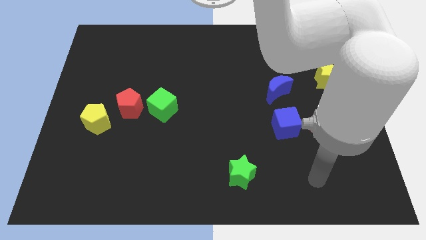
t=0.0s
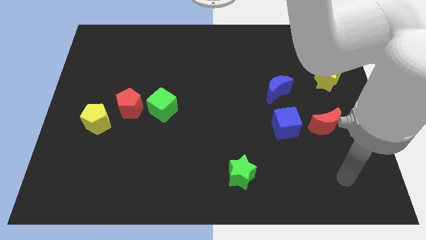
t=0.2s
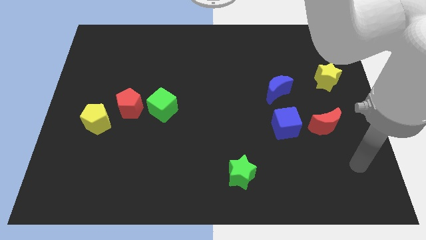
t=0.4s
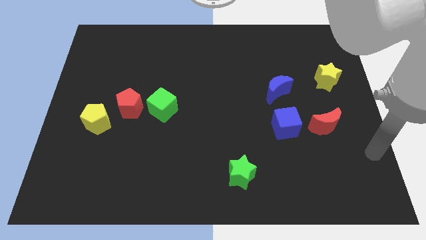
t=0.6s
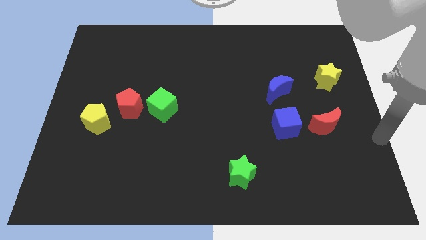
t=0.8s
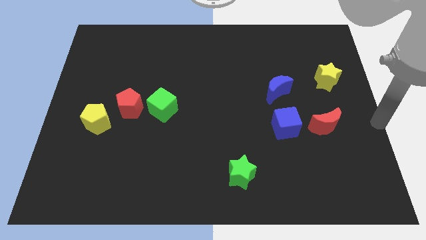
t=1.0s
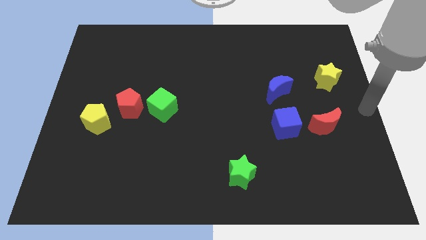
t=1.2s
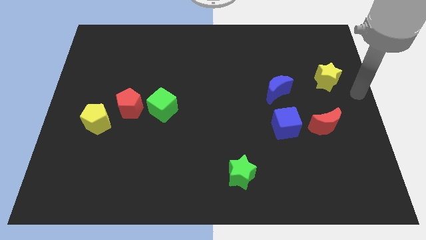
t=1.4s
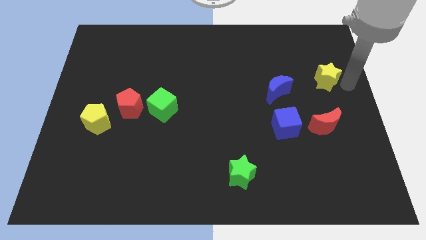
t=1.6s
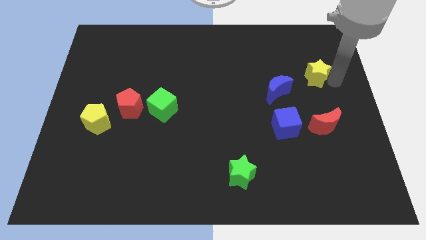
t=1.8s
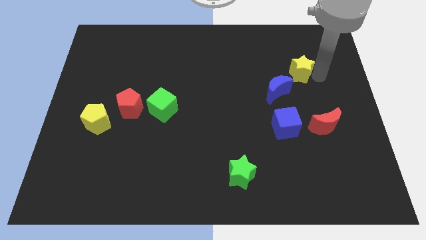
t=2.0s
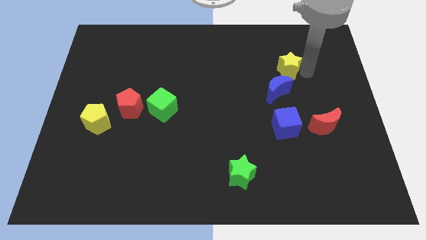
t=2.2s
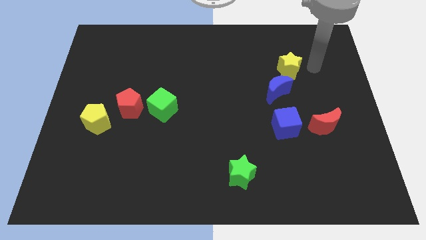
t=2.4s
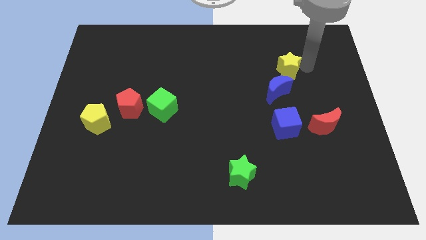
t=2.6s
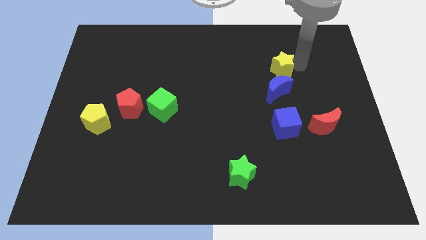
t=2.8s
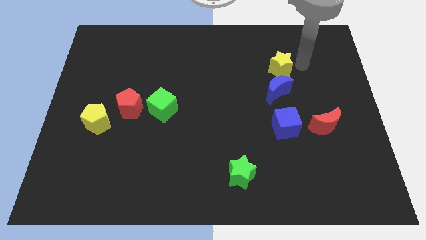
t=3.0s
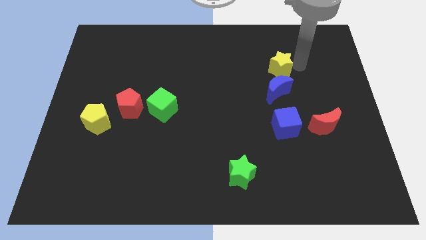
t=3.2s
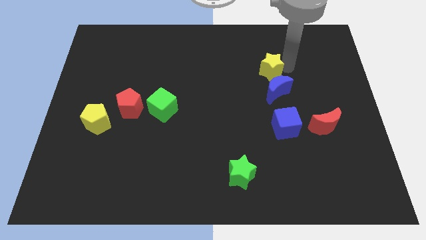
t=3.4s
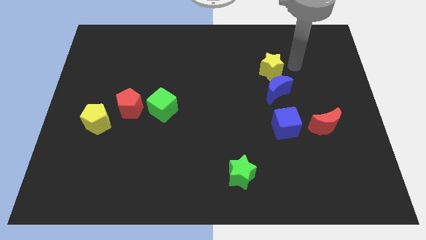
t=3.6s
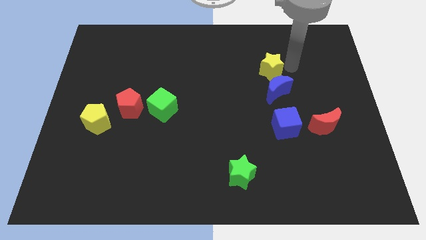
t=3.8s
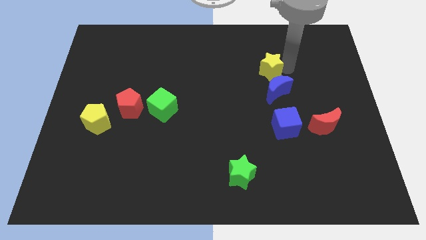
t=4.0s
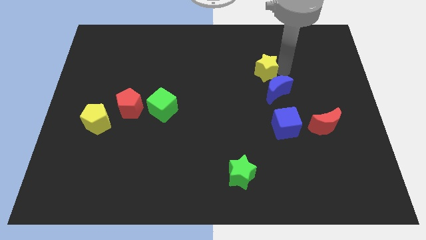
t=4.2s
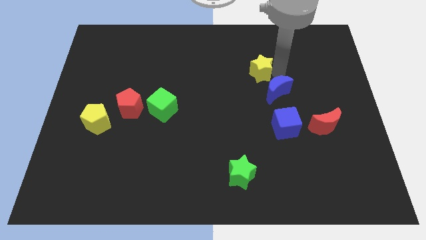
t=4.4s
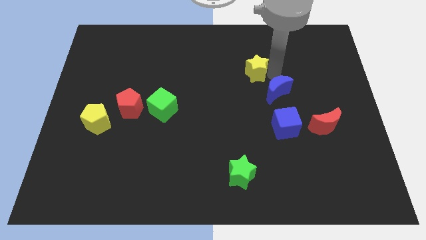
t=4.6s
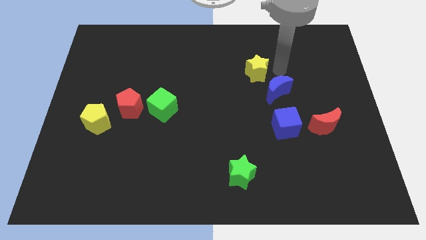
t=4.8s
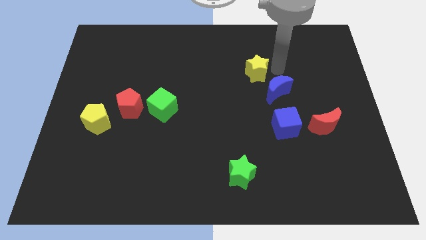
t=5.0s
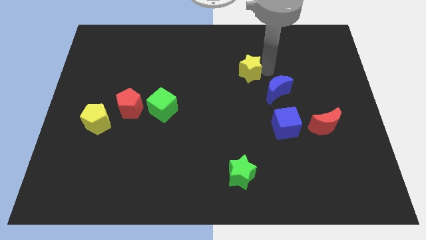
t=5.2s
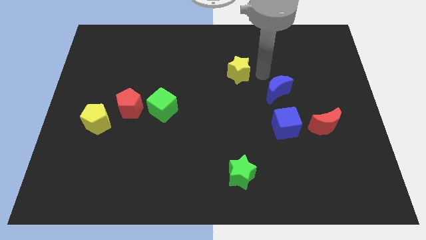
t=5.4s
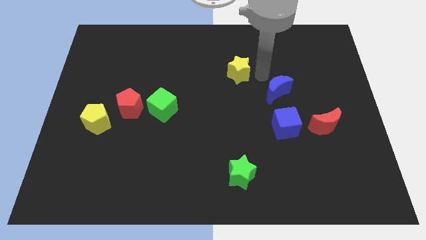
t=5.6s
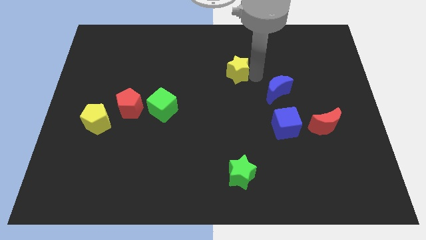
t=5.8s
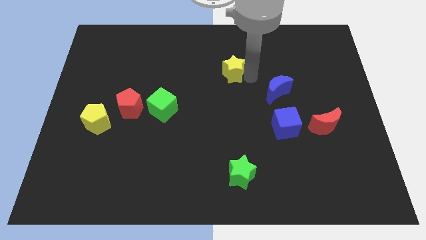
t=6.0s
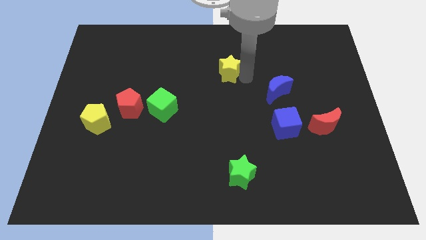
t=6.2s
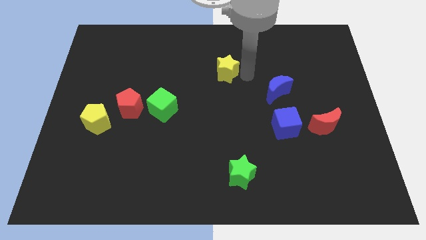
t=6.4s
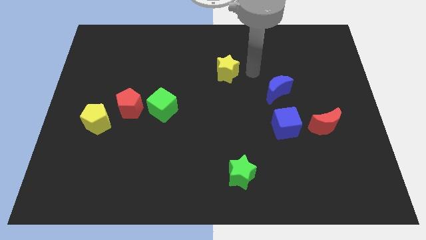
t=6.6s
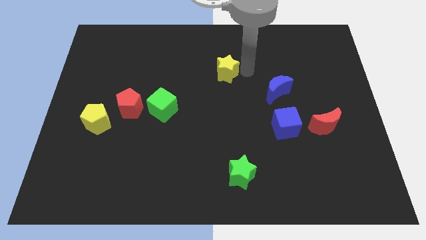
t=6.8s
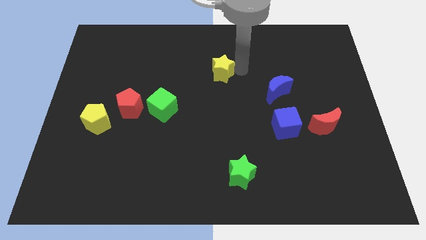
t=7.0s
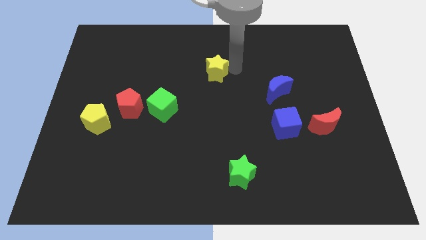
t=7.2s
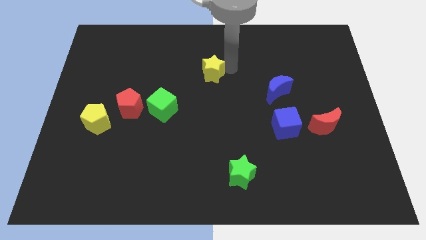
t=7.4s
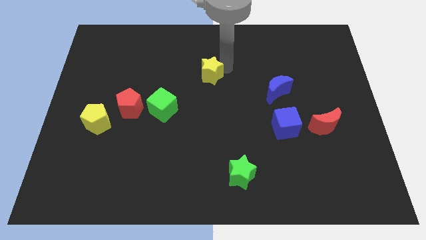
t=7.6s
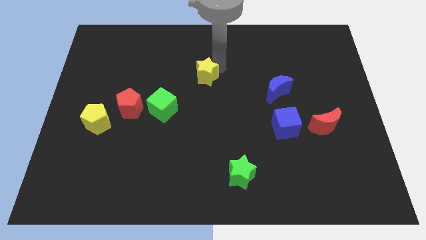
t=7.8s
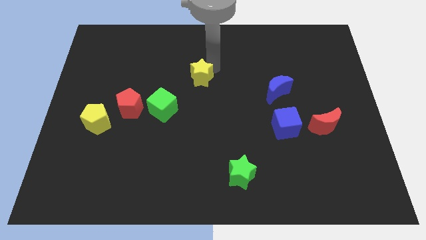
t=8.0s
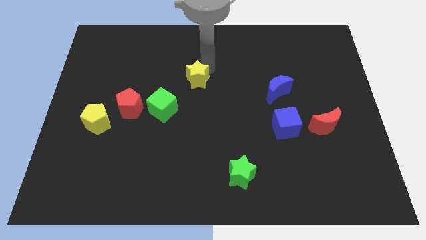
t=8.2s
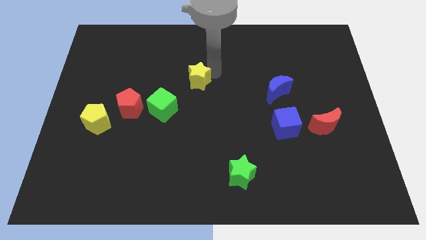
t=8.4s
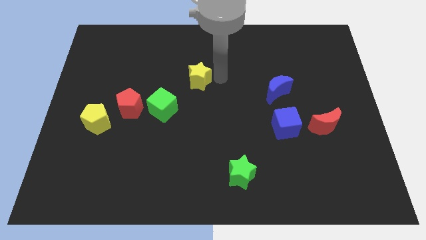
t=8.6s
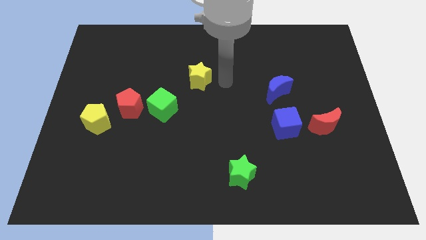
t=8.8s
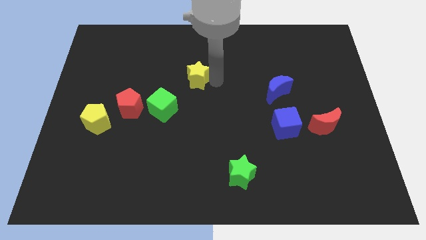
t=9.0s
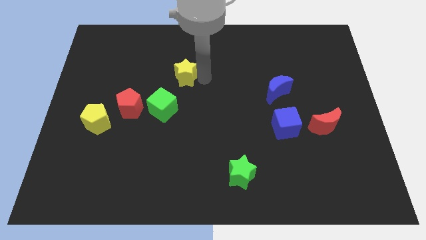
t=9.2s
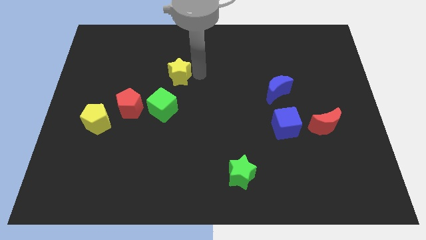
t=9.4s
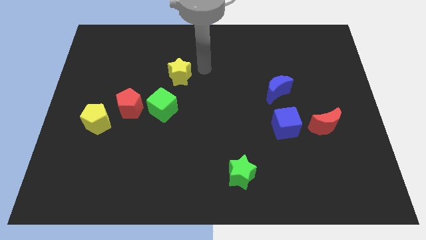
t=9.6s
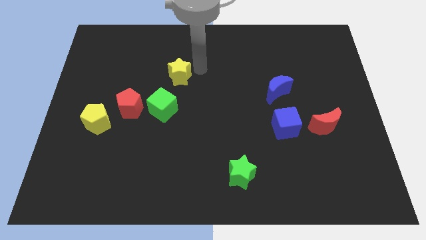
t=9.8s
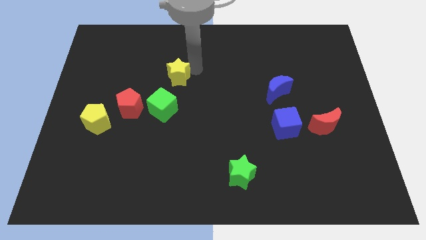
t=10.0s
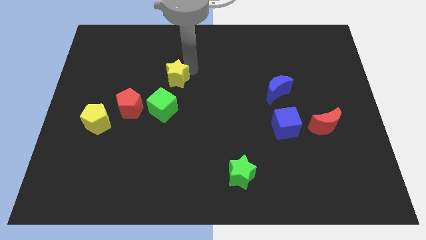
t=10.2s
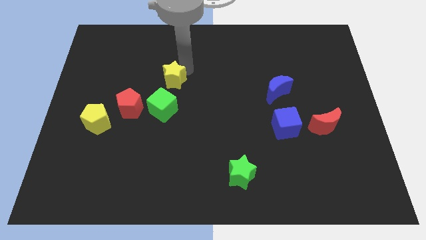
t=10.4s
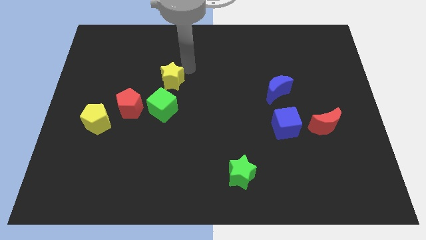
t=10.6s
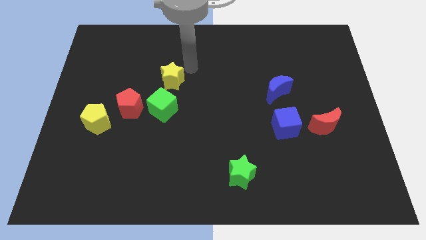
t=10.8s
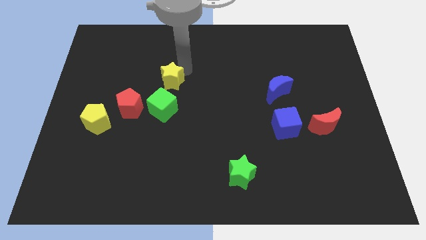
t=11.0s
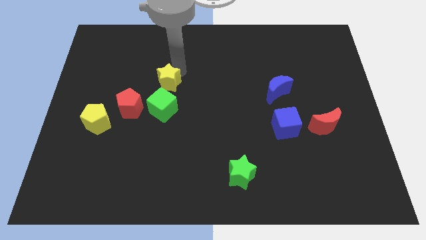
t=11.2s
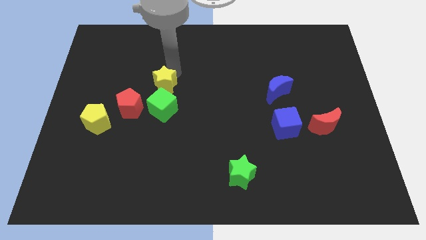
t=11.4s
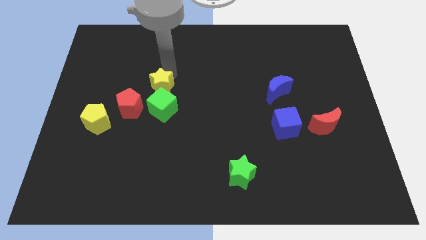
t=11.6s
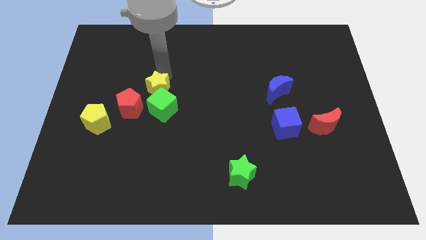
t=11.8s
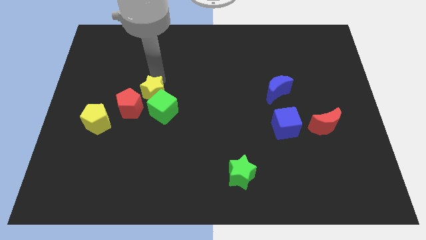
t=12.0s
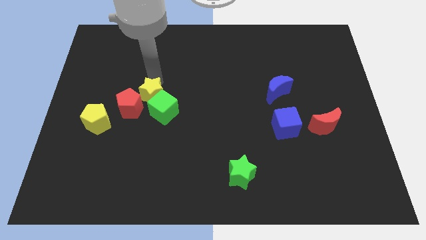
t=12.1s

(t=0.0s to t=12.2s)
push the yellow star to the red pentagon

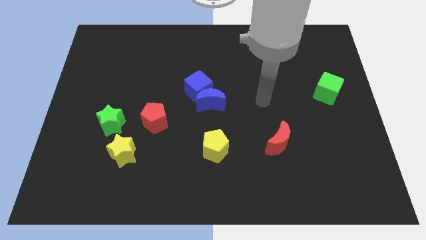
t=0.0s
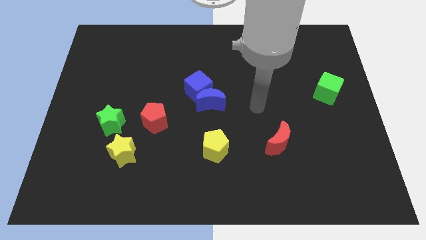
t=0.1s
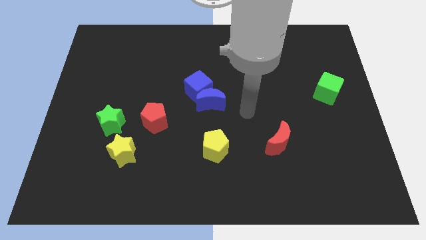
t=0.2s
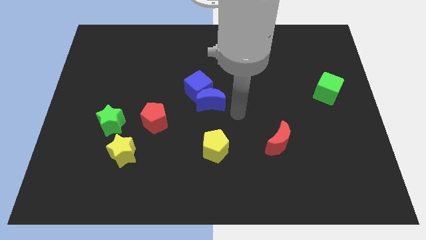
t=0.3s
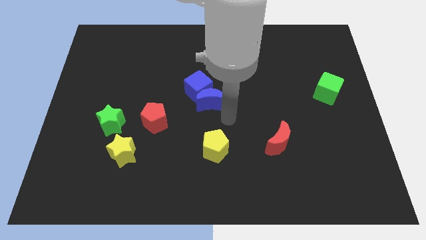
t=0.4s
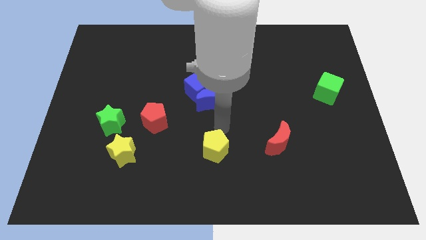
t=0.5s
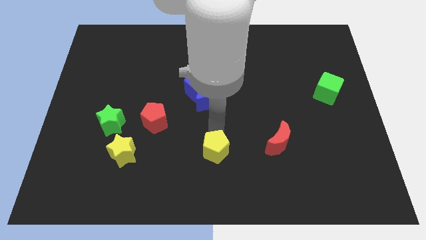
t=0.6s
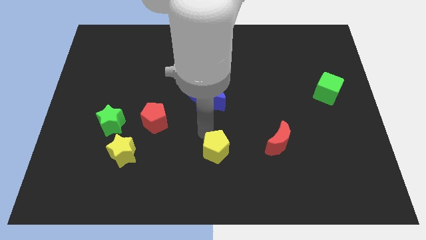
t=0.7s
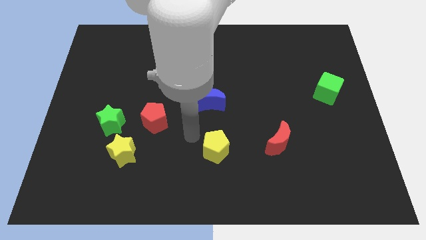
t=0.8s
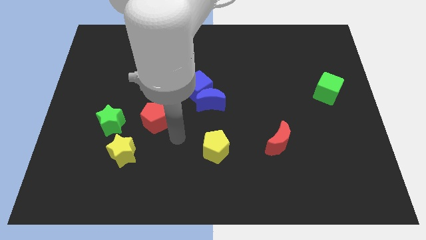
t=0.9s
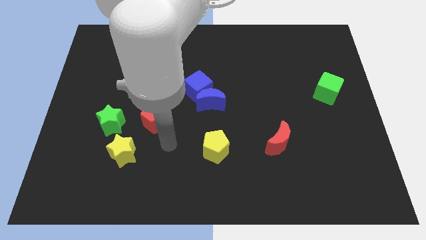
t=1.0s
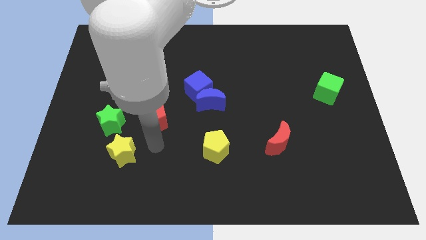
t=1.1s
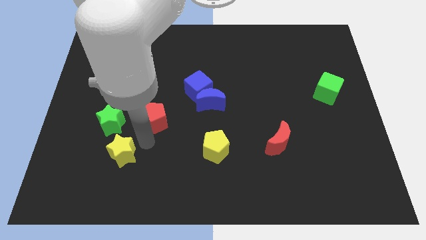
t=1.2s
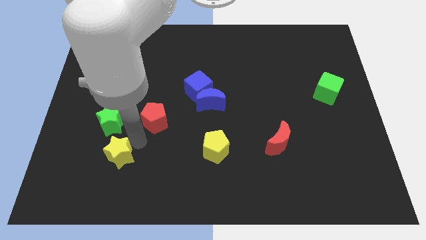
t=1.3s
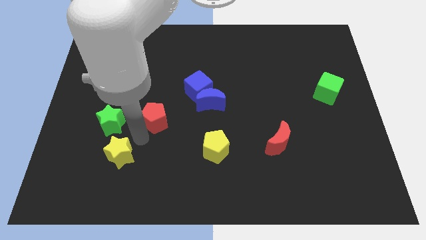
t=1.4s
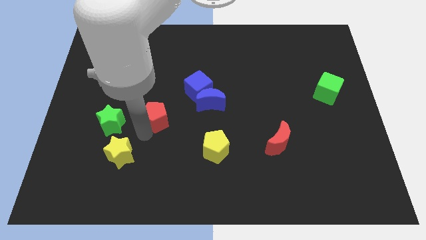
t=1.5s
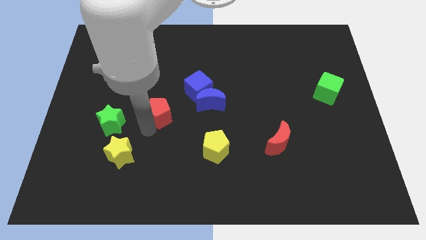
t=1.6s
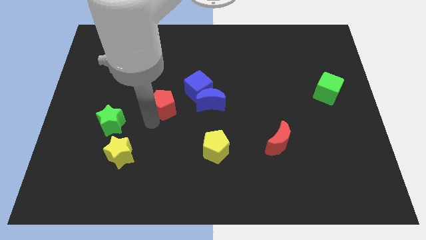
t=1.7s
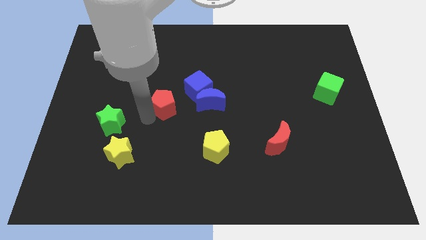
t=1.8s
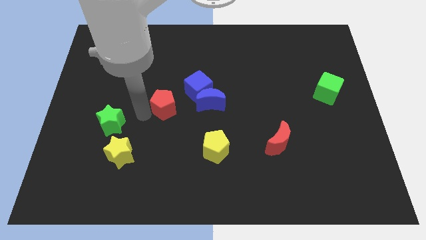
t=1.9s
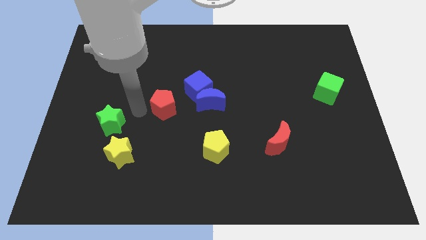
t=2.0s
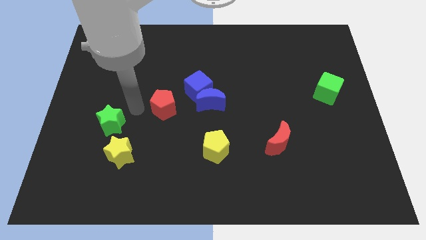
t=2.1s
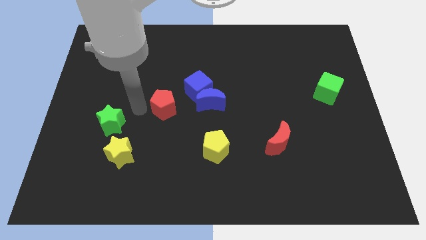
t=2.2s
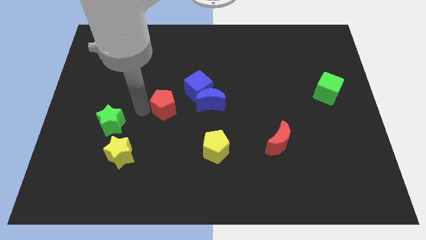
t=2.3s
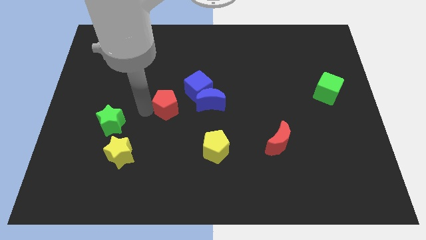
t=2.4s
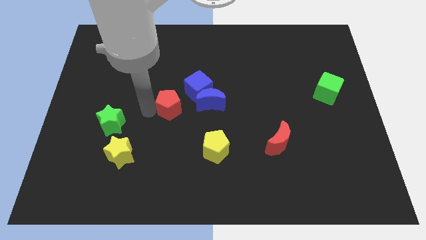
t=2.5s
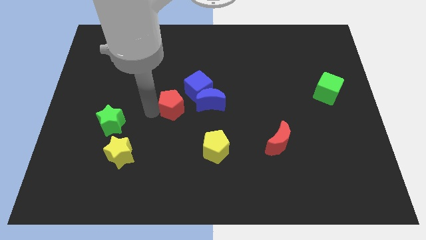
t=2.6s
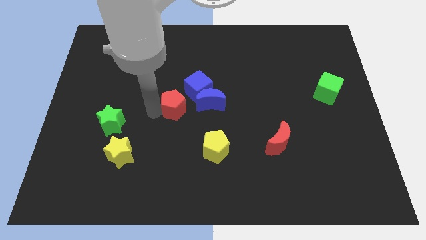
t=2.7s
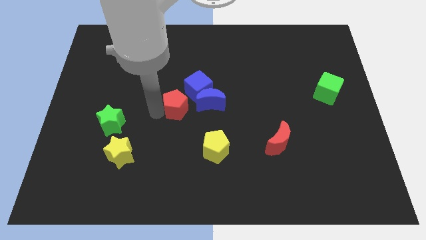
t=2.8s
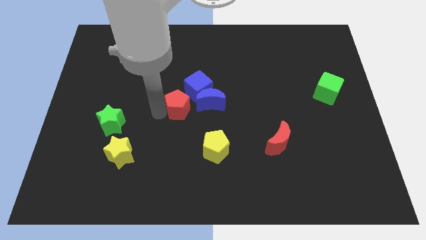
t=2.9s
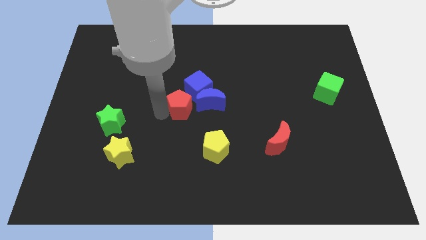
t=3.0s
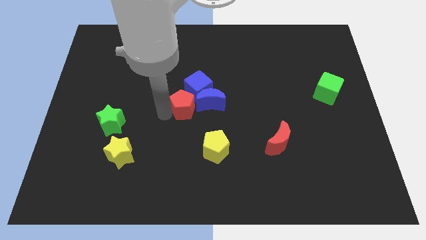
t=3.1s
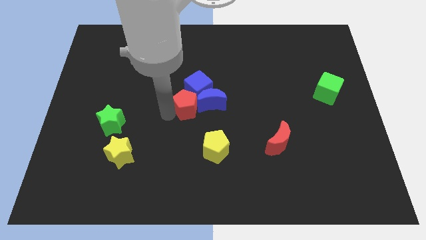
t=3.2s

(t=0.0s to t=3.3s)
move the red pentagon towards the blue moon
